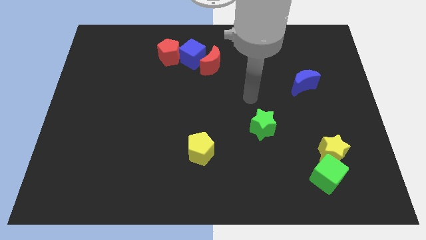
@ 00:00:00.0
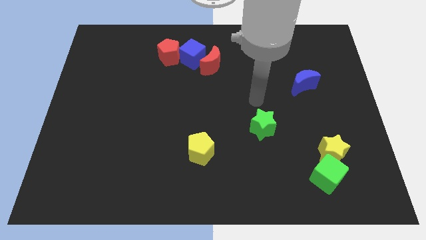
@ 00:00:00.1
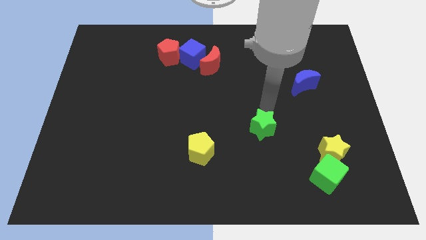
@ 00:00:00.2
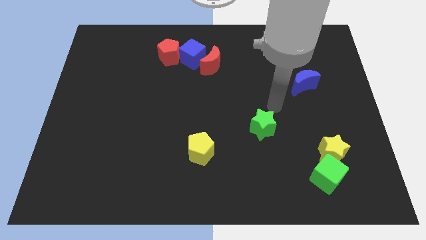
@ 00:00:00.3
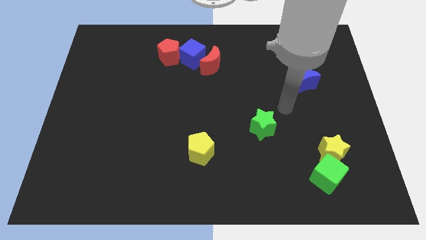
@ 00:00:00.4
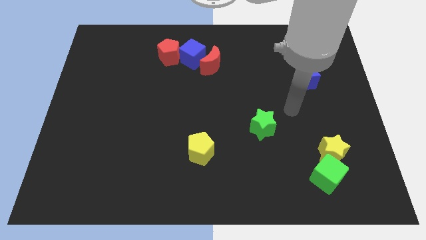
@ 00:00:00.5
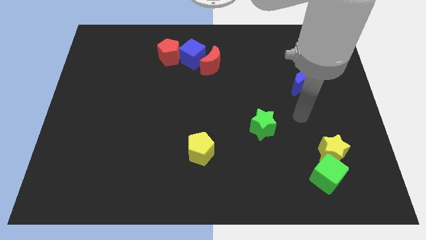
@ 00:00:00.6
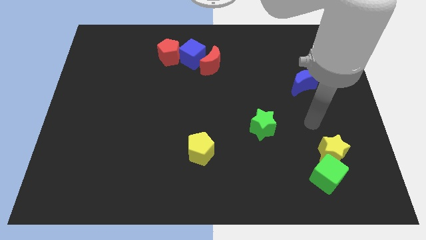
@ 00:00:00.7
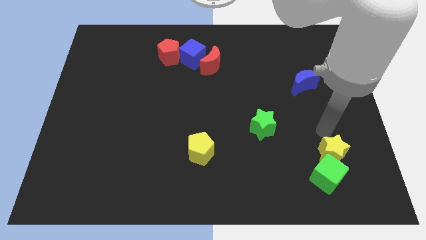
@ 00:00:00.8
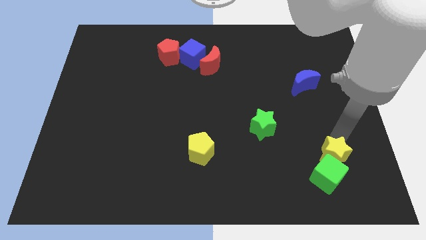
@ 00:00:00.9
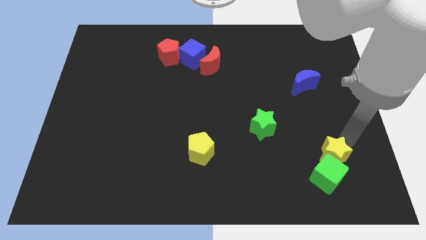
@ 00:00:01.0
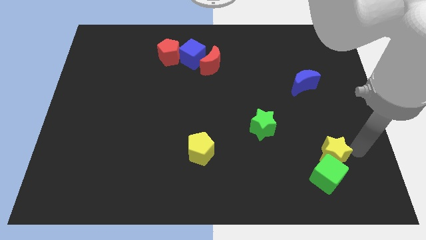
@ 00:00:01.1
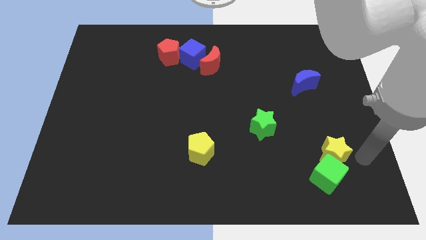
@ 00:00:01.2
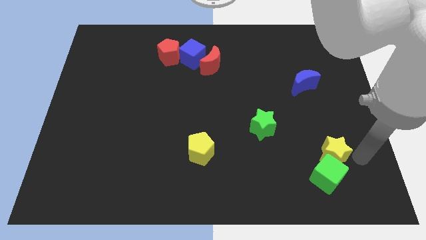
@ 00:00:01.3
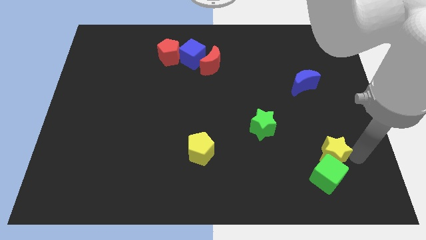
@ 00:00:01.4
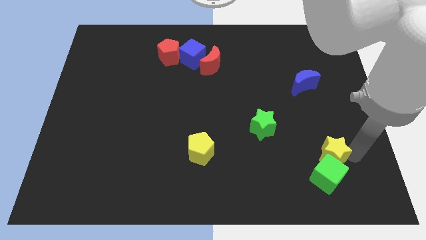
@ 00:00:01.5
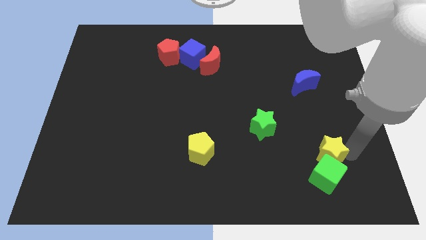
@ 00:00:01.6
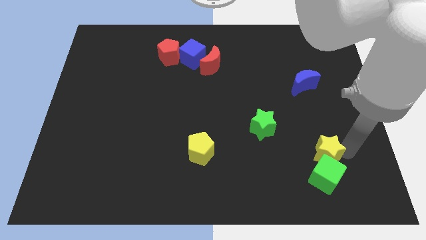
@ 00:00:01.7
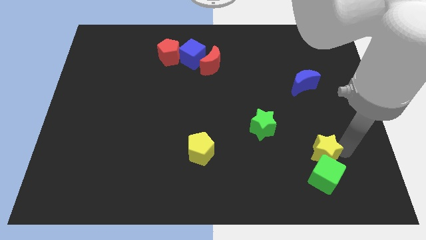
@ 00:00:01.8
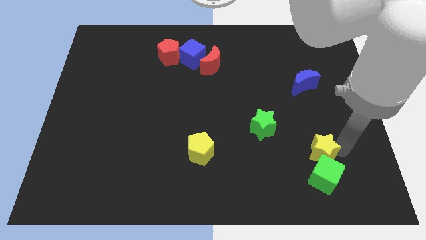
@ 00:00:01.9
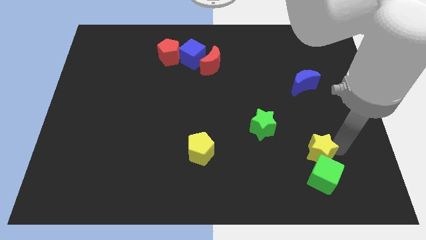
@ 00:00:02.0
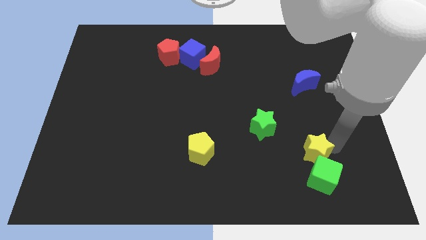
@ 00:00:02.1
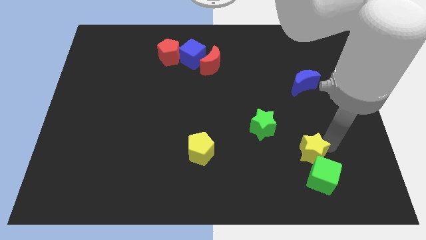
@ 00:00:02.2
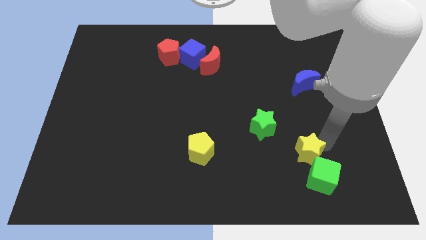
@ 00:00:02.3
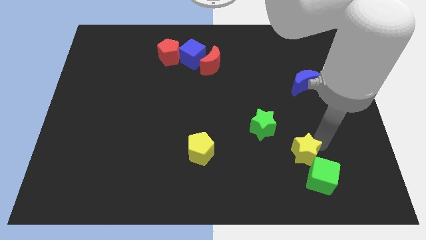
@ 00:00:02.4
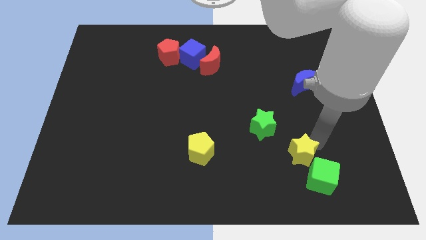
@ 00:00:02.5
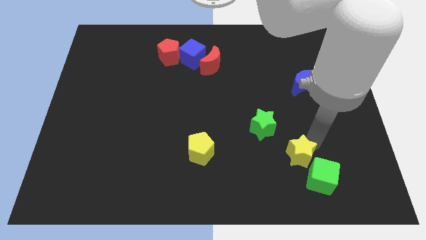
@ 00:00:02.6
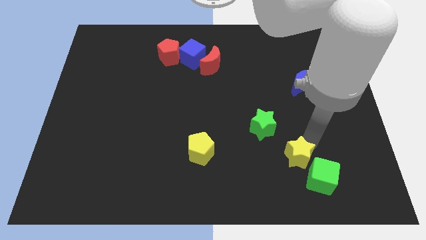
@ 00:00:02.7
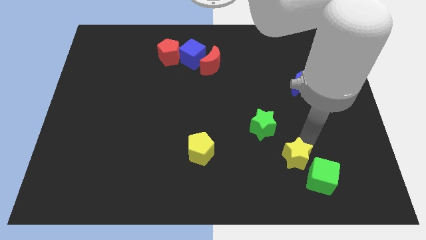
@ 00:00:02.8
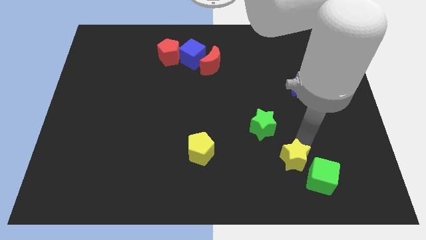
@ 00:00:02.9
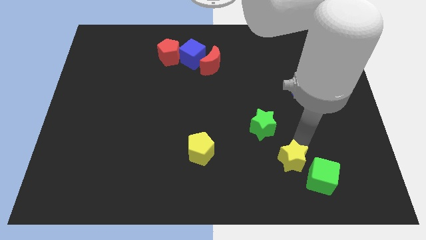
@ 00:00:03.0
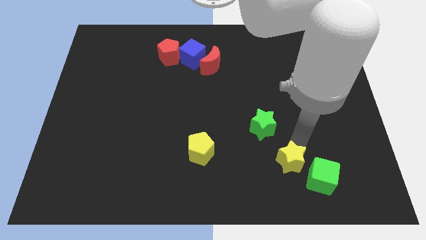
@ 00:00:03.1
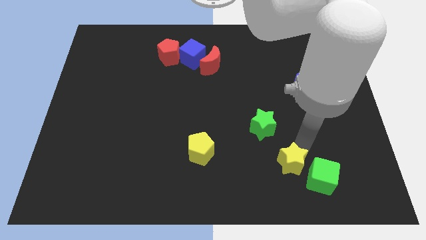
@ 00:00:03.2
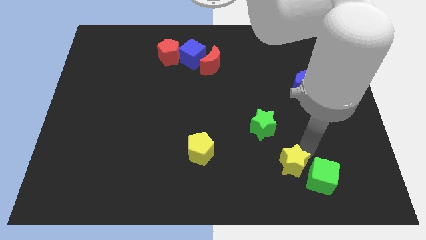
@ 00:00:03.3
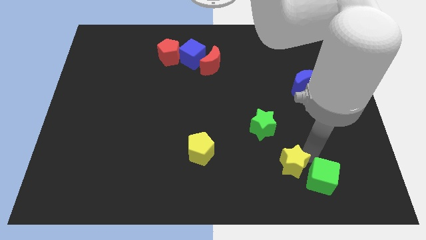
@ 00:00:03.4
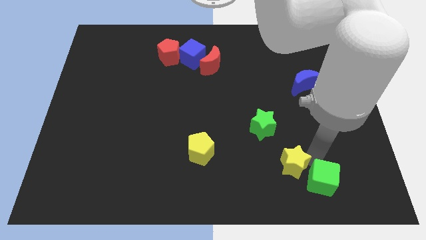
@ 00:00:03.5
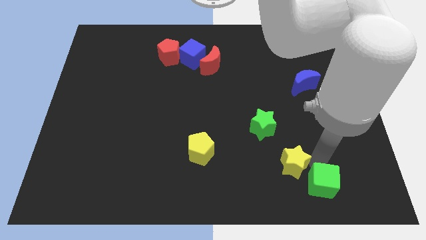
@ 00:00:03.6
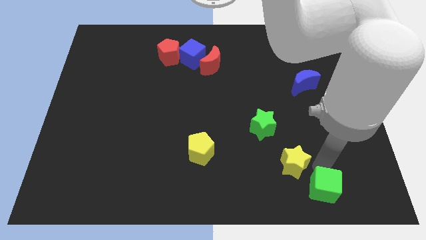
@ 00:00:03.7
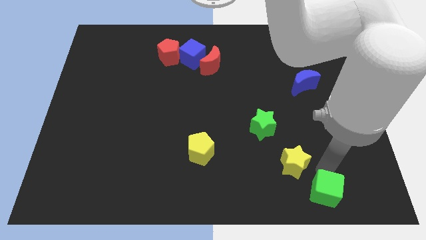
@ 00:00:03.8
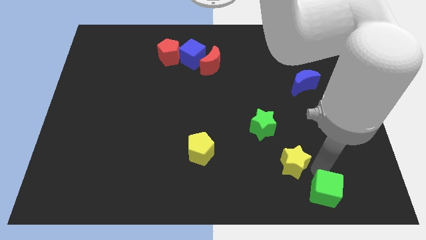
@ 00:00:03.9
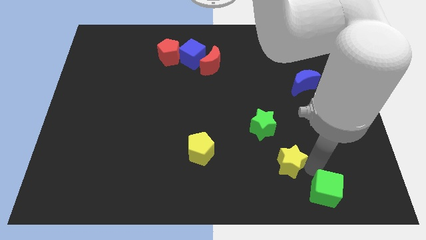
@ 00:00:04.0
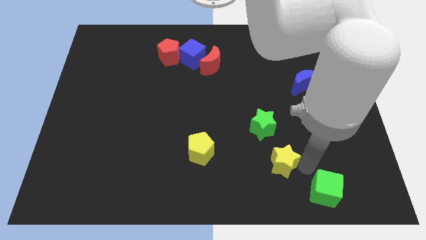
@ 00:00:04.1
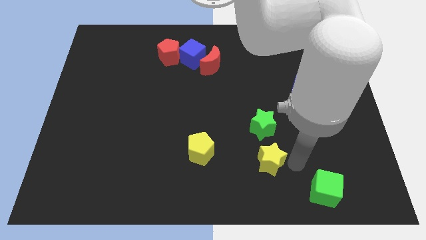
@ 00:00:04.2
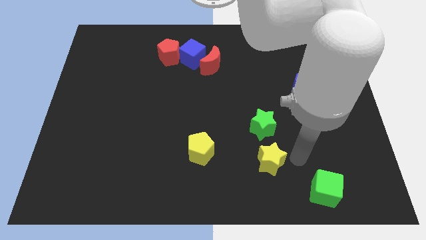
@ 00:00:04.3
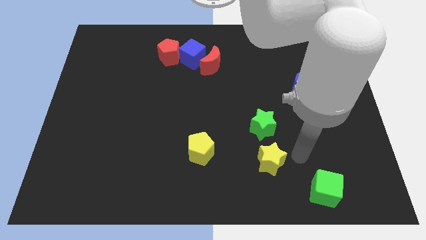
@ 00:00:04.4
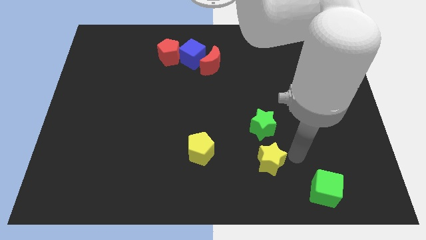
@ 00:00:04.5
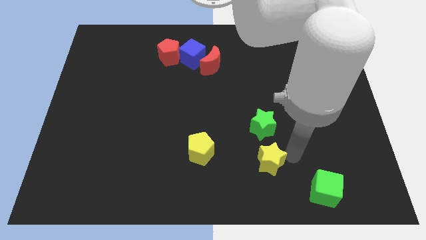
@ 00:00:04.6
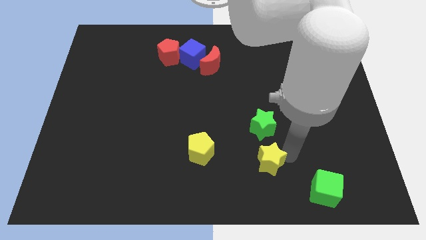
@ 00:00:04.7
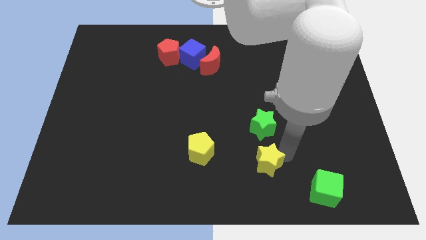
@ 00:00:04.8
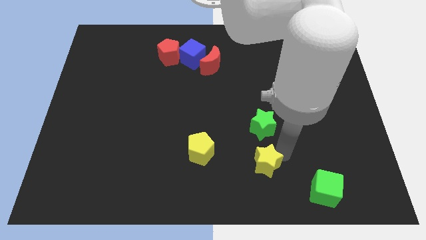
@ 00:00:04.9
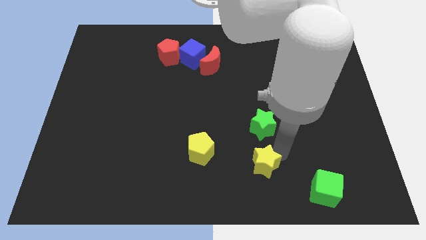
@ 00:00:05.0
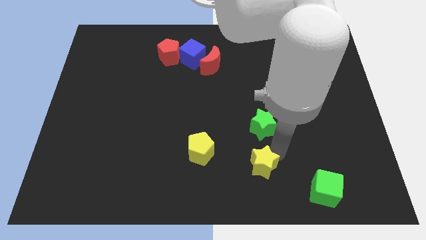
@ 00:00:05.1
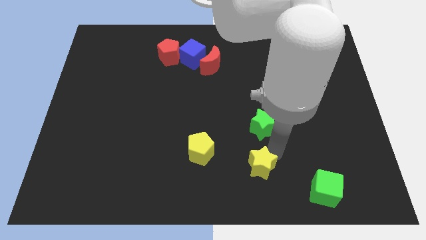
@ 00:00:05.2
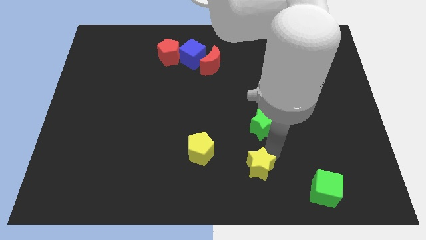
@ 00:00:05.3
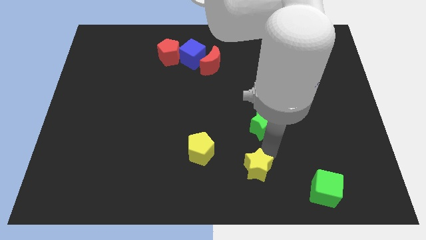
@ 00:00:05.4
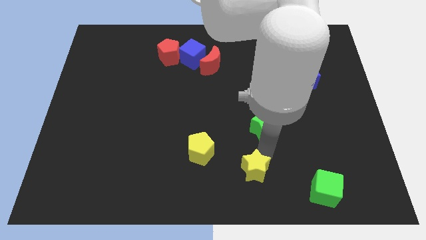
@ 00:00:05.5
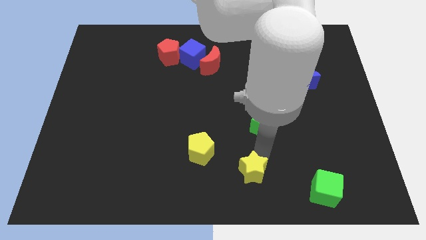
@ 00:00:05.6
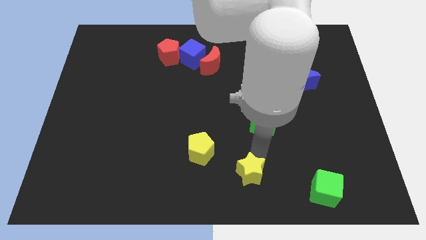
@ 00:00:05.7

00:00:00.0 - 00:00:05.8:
slide the yellow star to the bottom right of the yellow pentagon

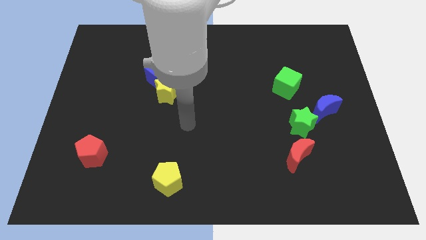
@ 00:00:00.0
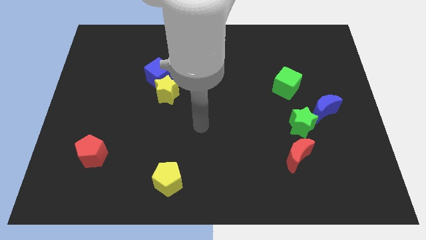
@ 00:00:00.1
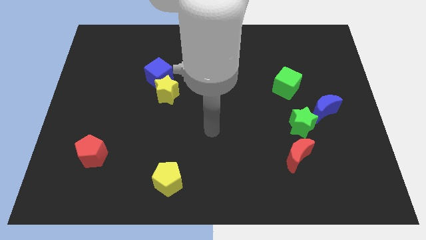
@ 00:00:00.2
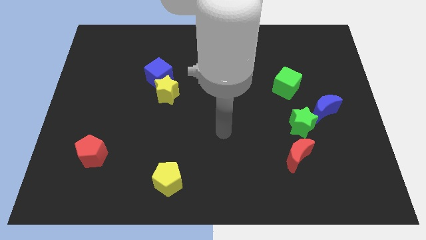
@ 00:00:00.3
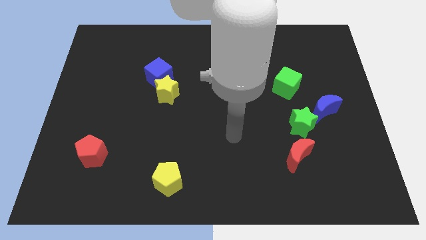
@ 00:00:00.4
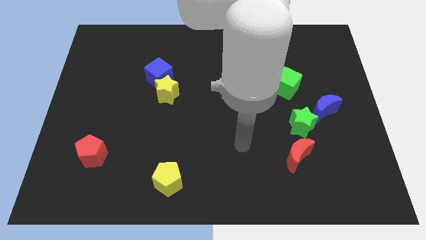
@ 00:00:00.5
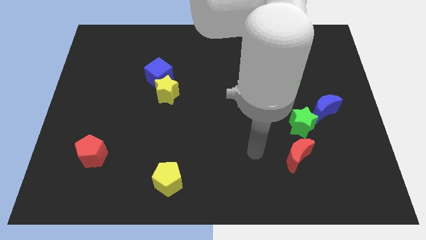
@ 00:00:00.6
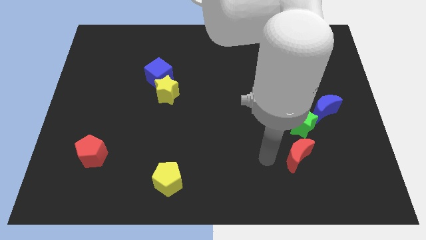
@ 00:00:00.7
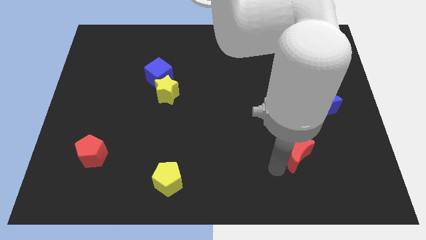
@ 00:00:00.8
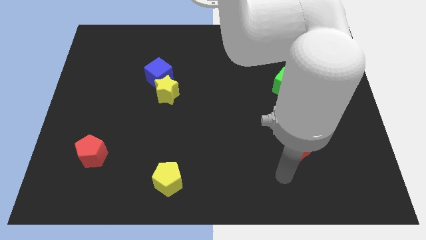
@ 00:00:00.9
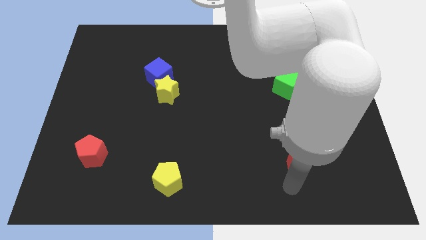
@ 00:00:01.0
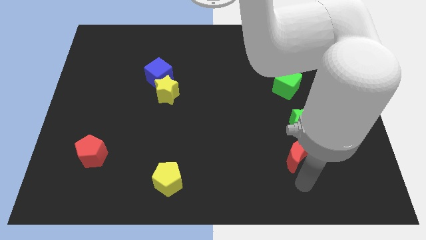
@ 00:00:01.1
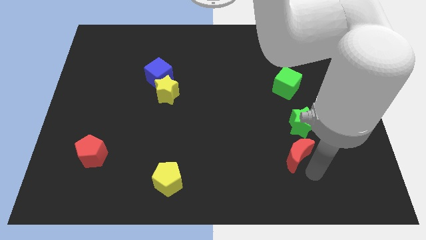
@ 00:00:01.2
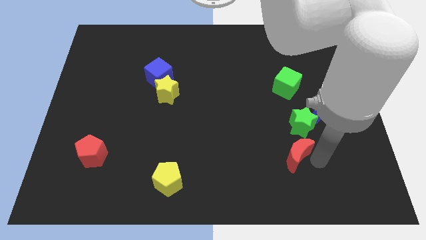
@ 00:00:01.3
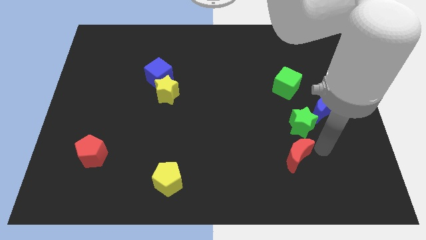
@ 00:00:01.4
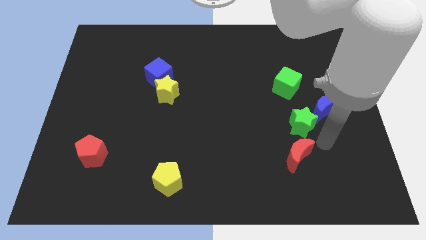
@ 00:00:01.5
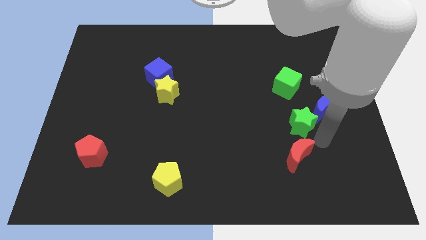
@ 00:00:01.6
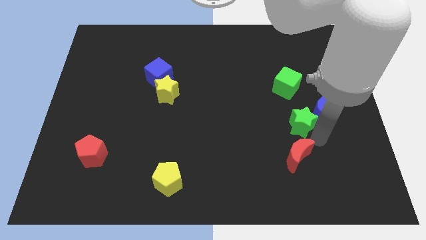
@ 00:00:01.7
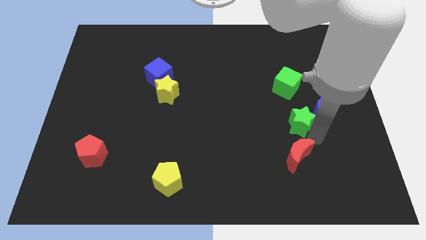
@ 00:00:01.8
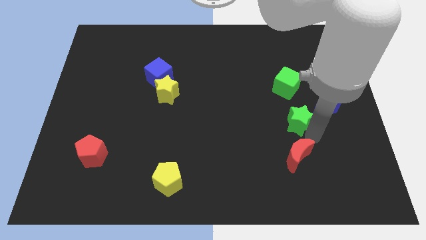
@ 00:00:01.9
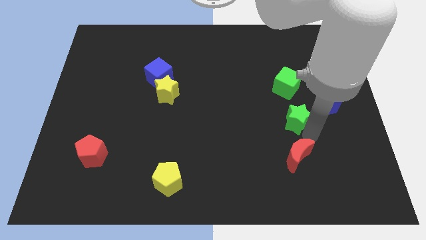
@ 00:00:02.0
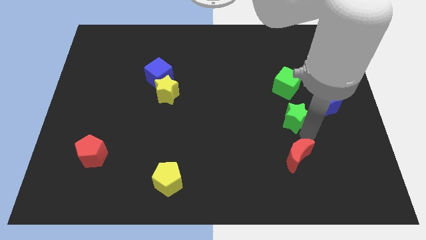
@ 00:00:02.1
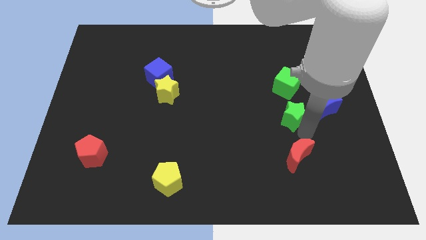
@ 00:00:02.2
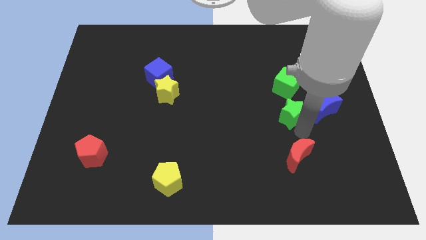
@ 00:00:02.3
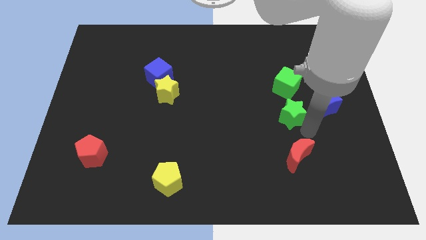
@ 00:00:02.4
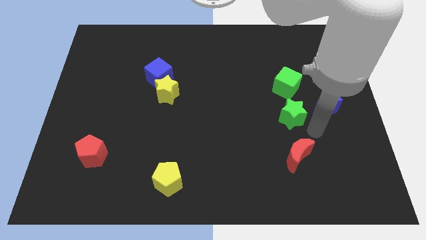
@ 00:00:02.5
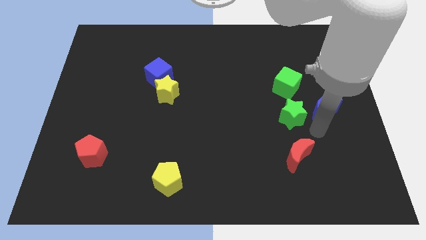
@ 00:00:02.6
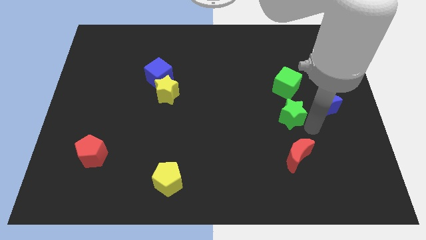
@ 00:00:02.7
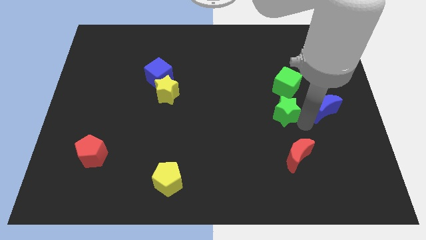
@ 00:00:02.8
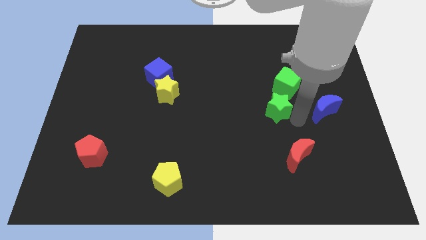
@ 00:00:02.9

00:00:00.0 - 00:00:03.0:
slide the green star diagonally down and to the left of the green cube
